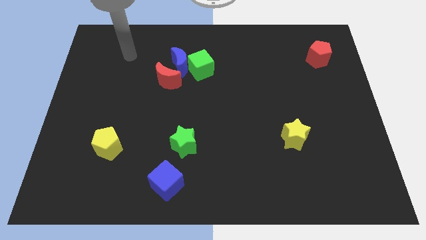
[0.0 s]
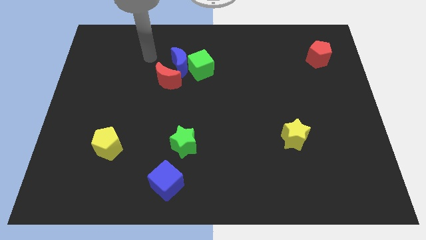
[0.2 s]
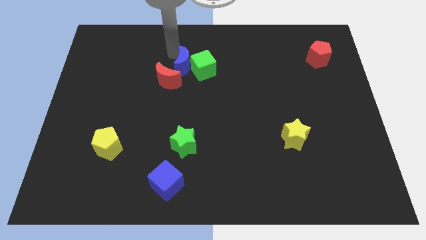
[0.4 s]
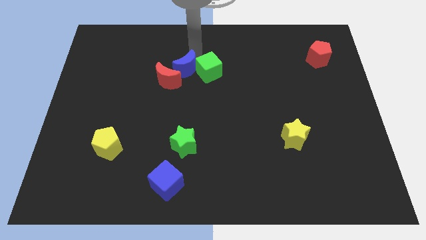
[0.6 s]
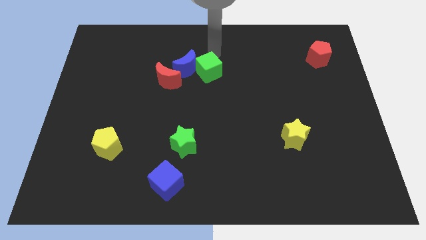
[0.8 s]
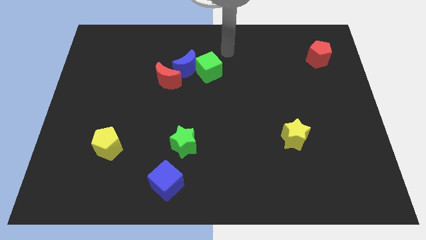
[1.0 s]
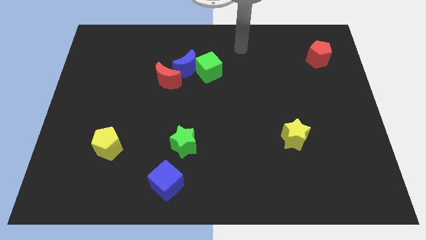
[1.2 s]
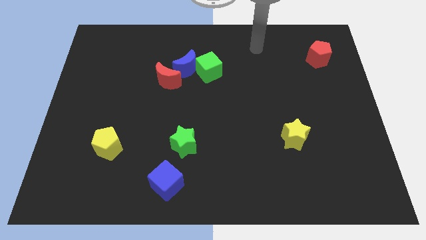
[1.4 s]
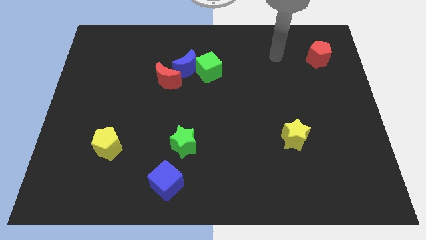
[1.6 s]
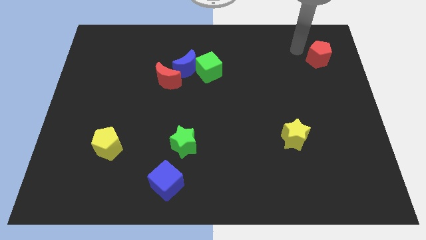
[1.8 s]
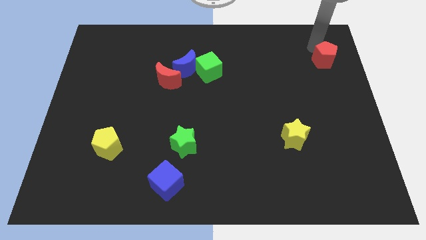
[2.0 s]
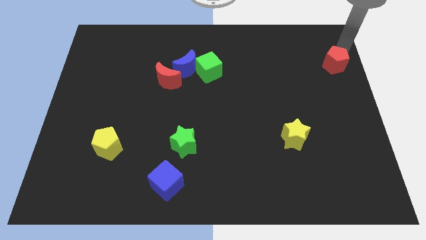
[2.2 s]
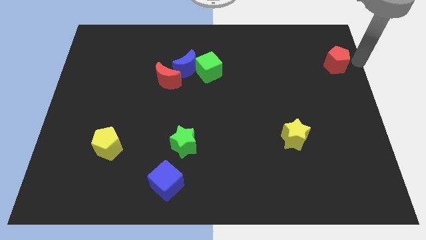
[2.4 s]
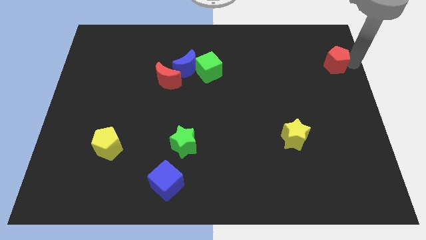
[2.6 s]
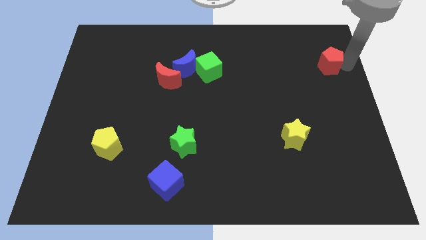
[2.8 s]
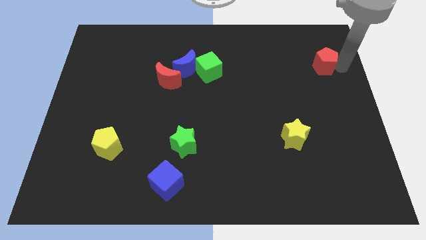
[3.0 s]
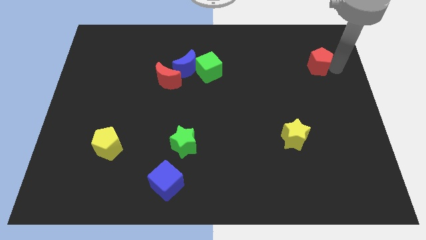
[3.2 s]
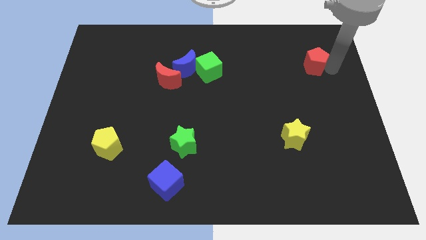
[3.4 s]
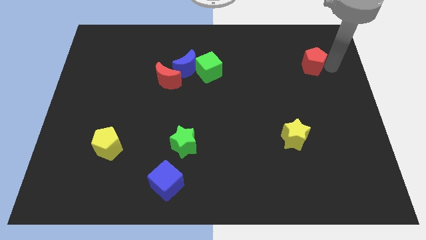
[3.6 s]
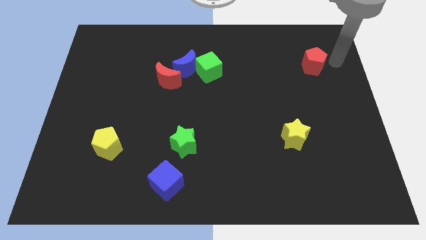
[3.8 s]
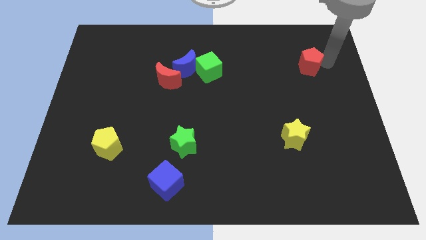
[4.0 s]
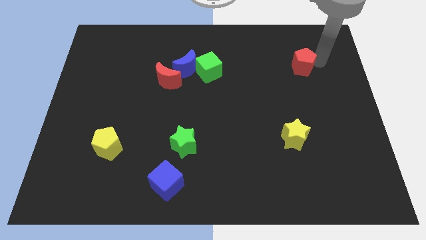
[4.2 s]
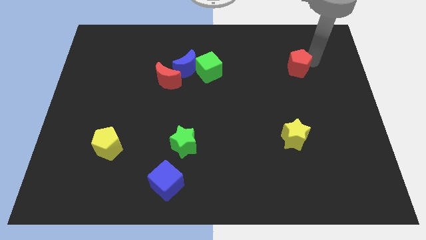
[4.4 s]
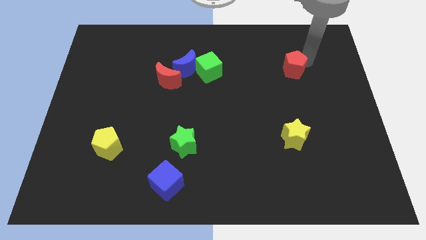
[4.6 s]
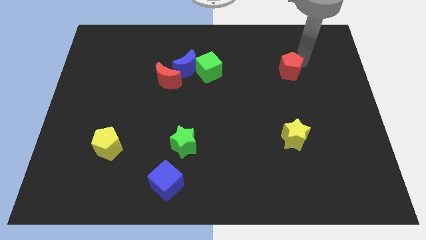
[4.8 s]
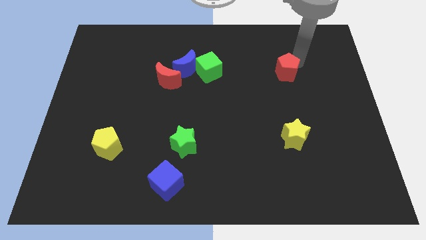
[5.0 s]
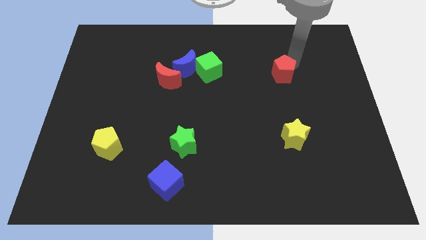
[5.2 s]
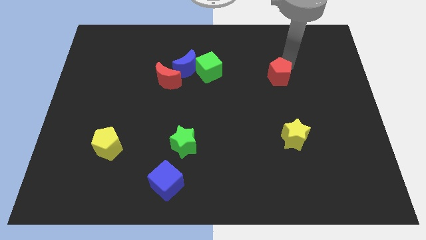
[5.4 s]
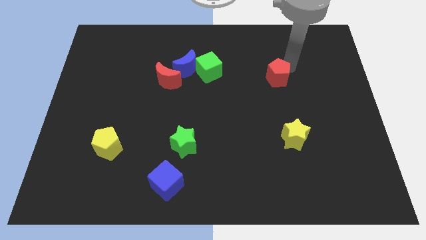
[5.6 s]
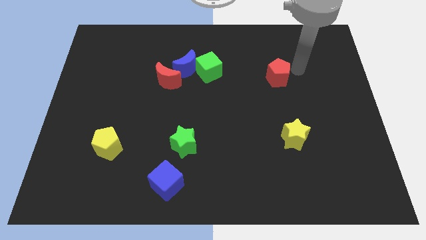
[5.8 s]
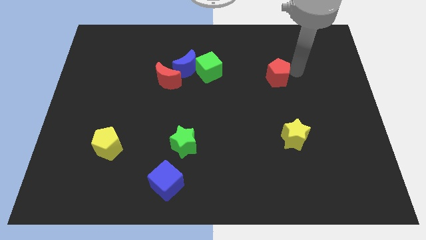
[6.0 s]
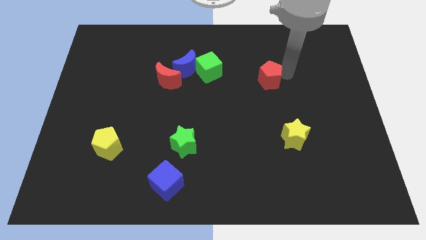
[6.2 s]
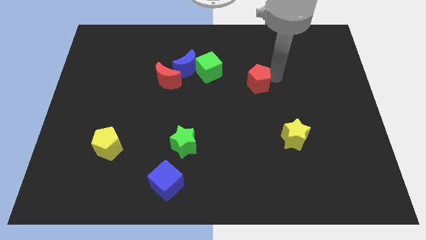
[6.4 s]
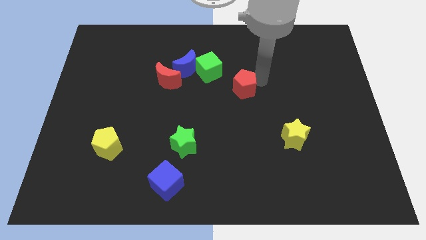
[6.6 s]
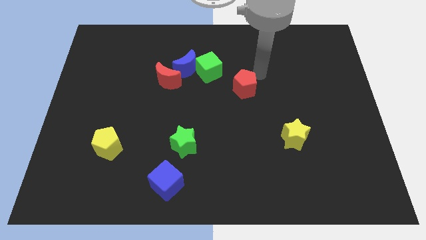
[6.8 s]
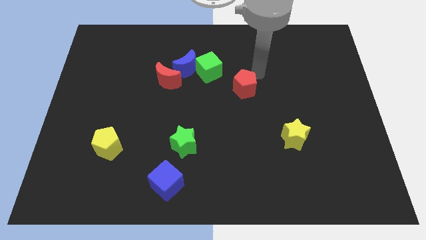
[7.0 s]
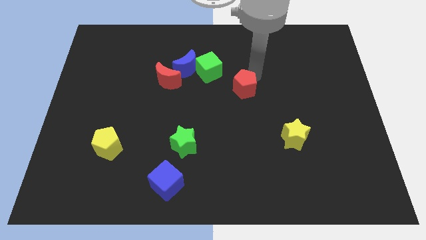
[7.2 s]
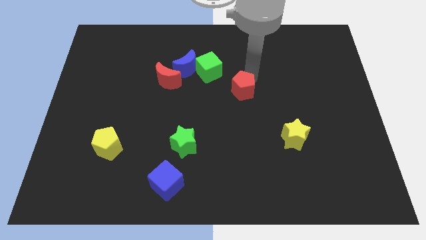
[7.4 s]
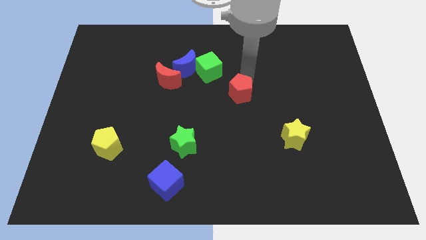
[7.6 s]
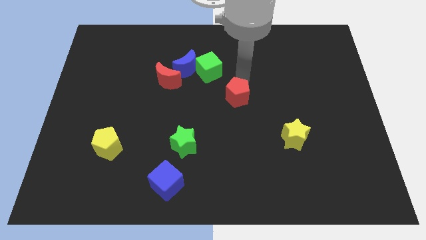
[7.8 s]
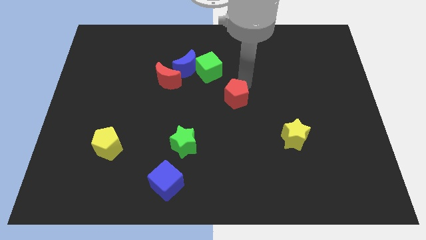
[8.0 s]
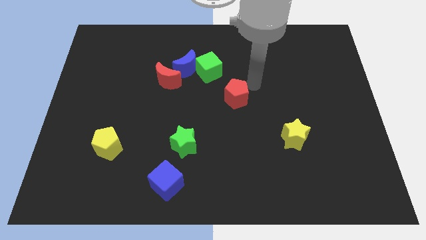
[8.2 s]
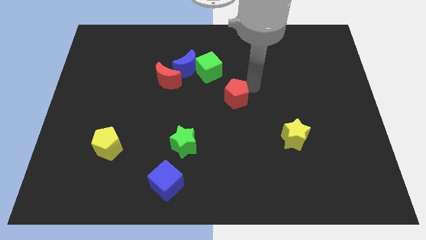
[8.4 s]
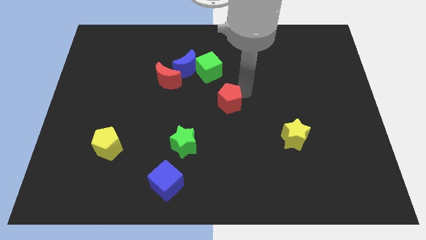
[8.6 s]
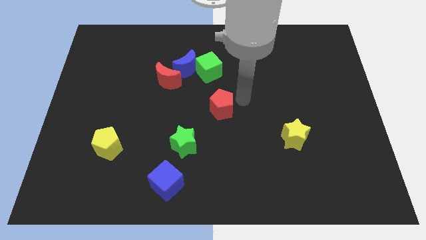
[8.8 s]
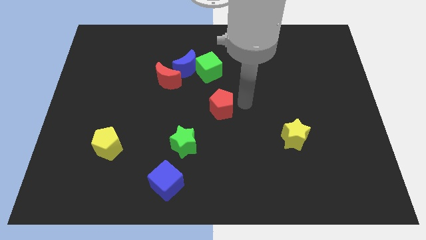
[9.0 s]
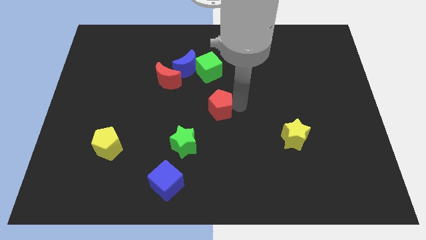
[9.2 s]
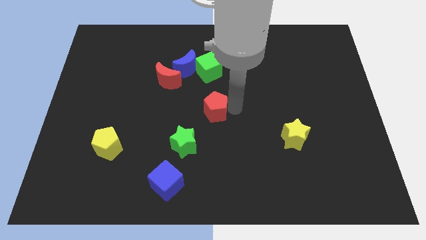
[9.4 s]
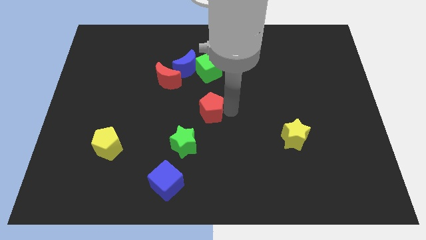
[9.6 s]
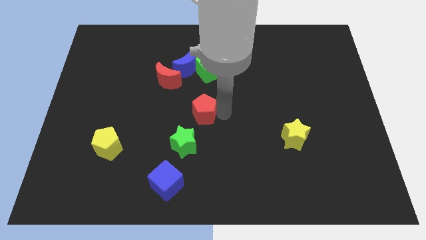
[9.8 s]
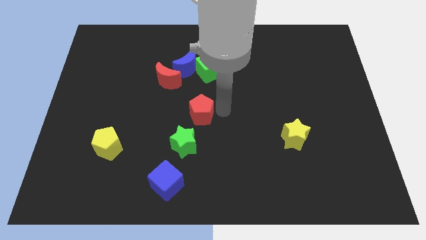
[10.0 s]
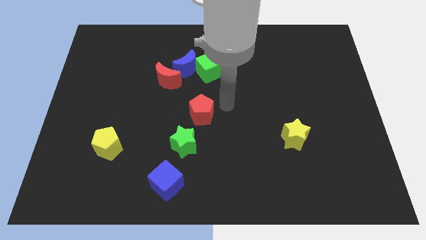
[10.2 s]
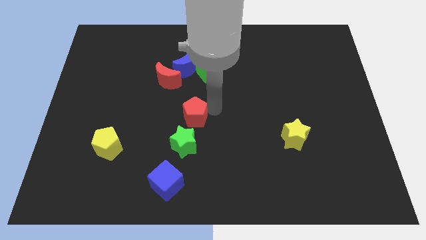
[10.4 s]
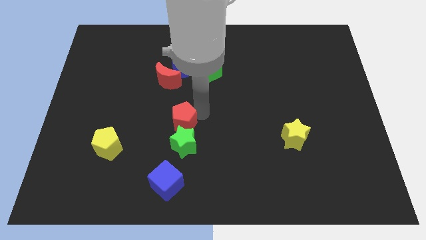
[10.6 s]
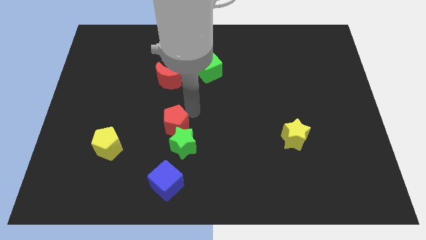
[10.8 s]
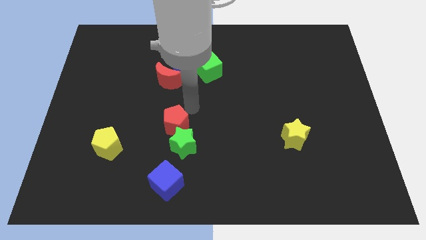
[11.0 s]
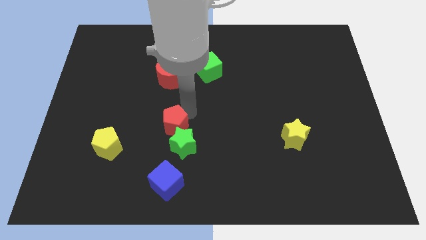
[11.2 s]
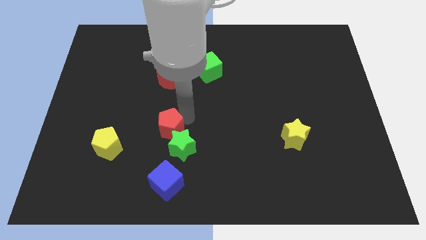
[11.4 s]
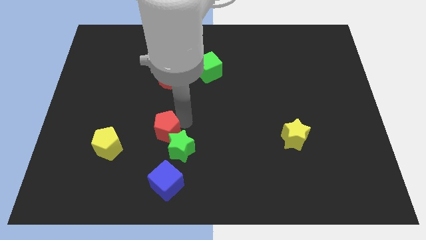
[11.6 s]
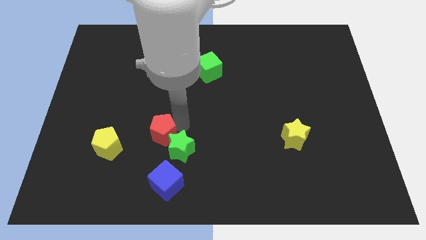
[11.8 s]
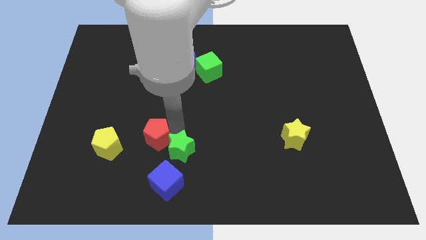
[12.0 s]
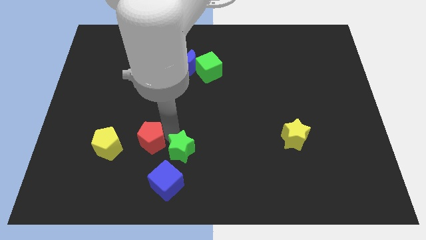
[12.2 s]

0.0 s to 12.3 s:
slide the red pentagon to the top left of the blue cube

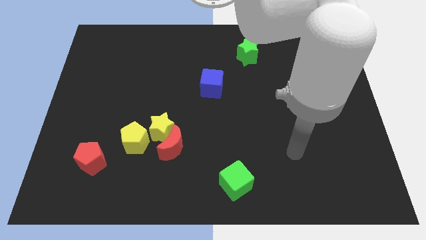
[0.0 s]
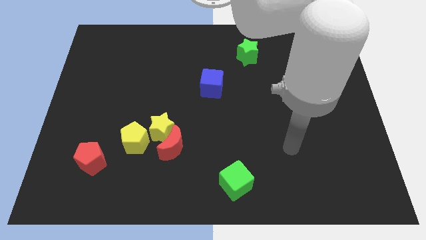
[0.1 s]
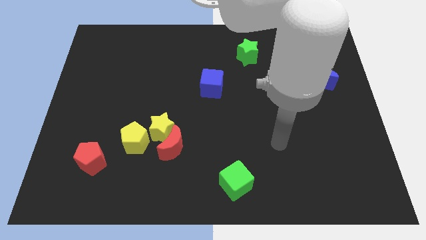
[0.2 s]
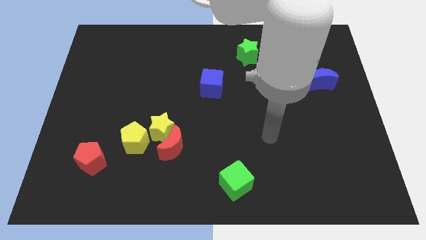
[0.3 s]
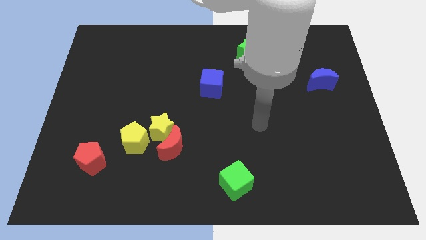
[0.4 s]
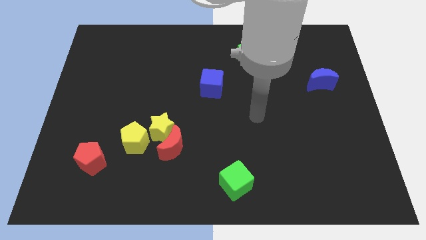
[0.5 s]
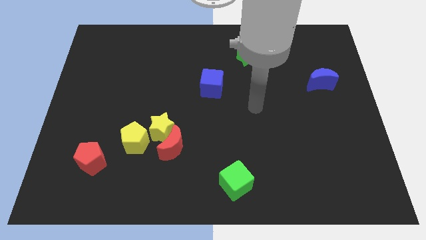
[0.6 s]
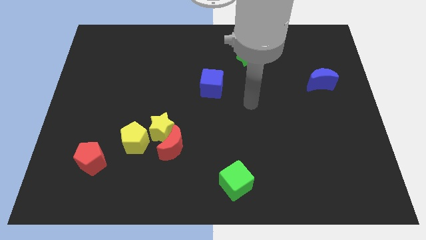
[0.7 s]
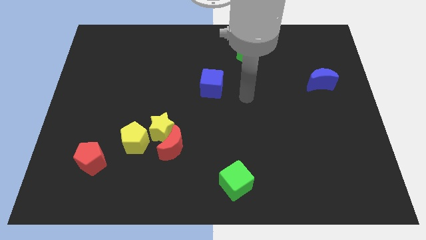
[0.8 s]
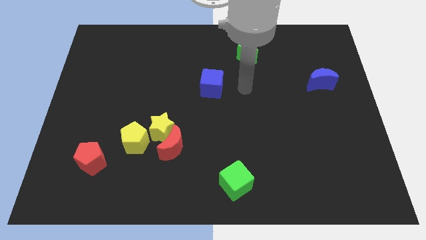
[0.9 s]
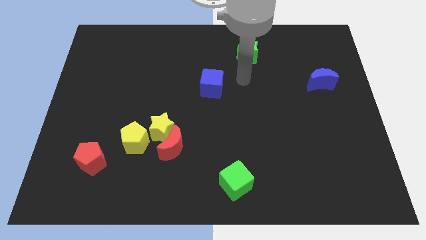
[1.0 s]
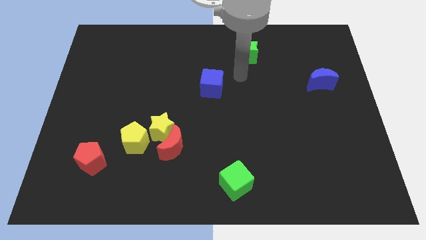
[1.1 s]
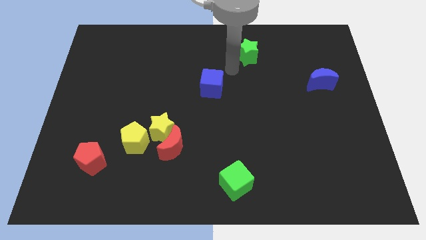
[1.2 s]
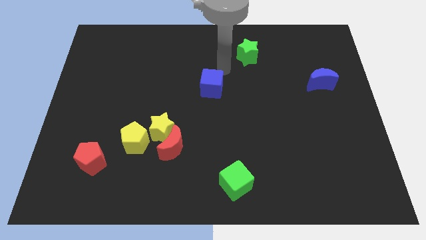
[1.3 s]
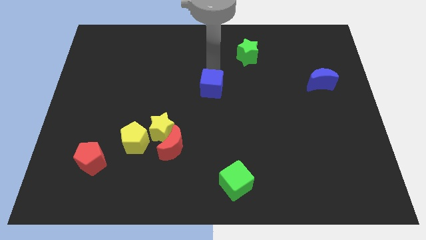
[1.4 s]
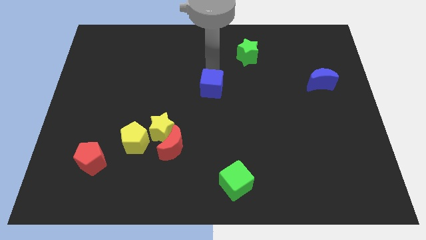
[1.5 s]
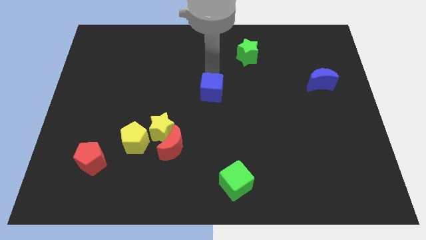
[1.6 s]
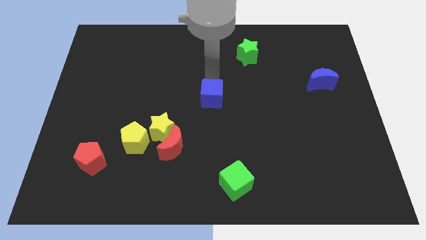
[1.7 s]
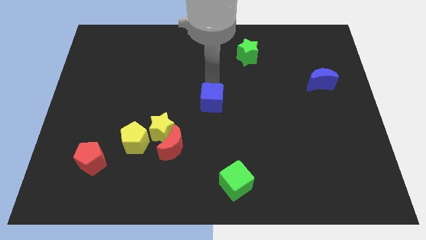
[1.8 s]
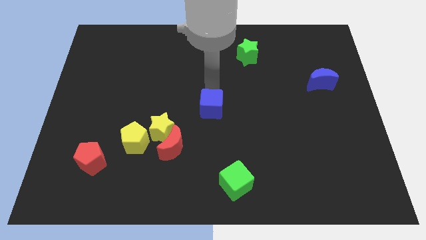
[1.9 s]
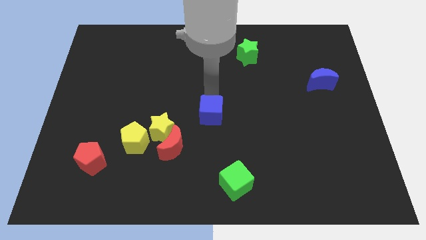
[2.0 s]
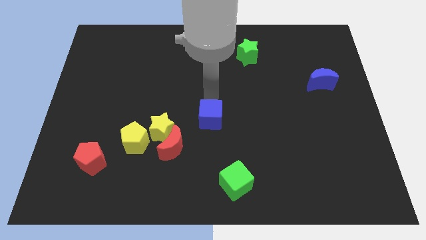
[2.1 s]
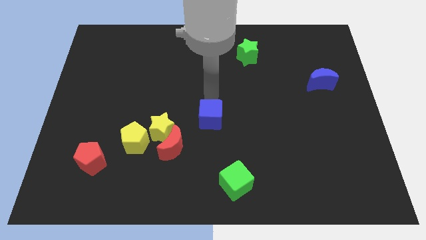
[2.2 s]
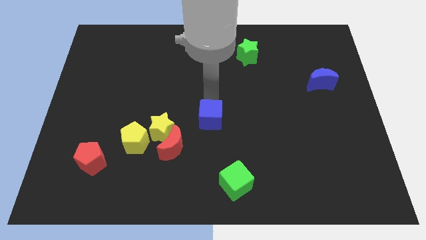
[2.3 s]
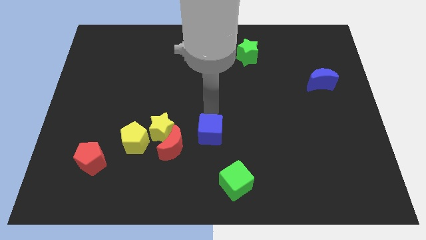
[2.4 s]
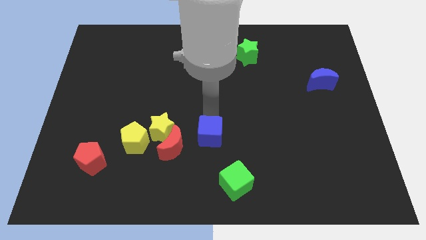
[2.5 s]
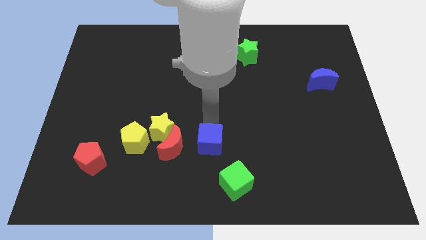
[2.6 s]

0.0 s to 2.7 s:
push the blue cube to the top left of the green cube
